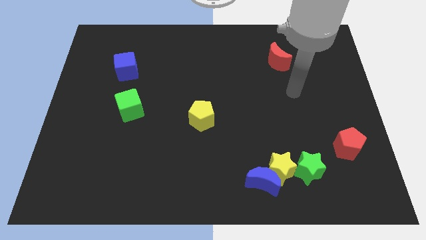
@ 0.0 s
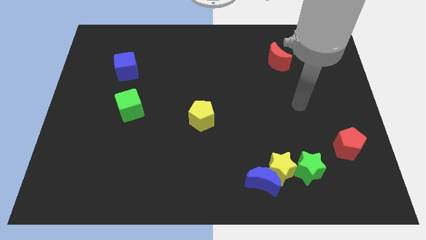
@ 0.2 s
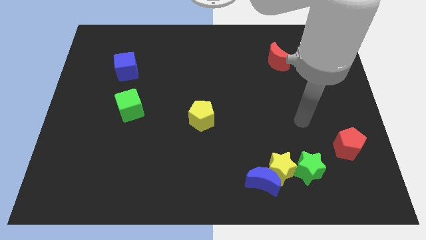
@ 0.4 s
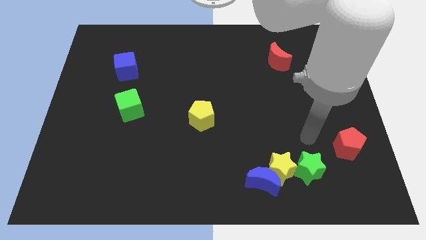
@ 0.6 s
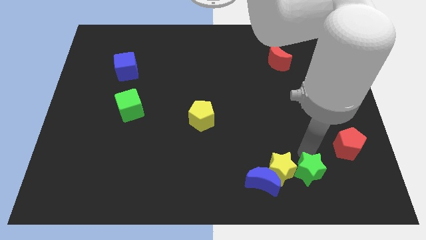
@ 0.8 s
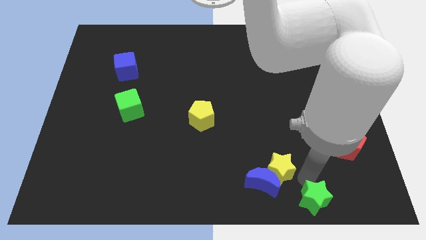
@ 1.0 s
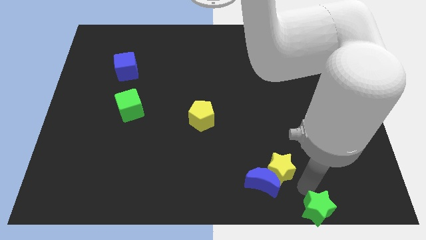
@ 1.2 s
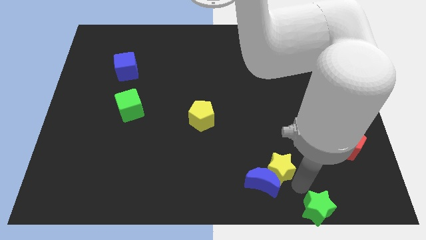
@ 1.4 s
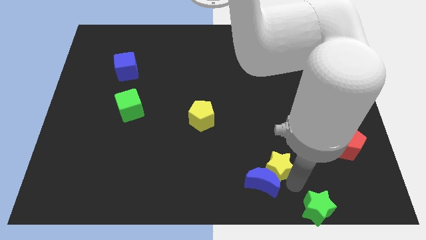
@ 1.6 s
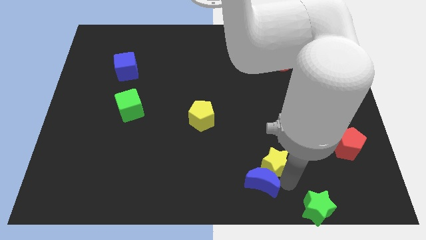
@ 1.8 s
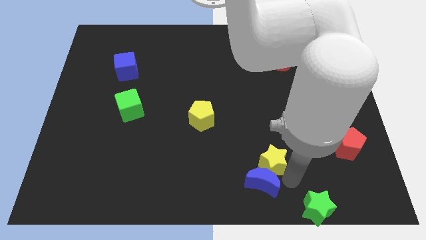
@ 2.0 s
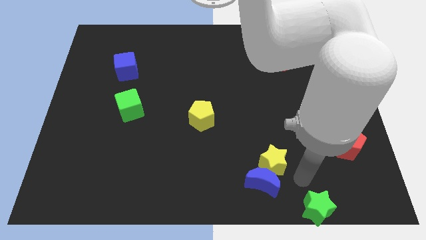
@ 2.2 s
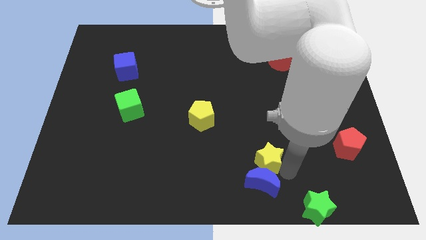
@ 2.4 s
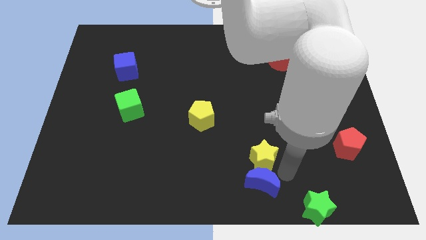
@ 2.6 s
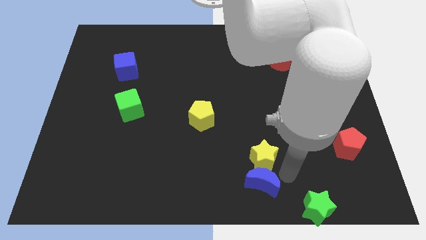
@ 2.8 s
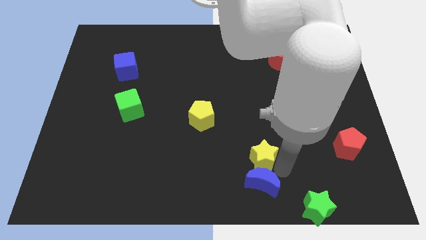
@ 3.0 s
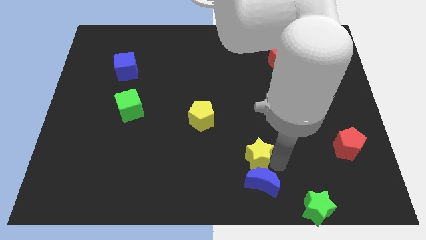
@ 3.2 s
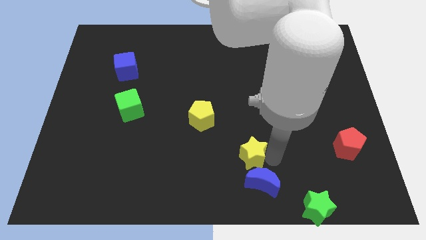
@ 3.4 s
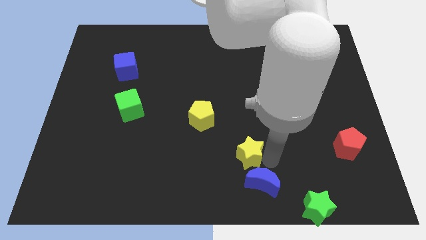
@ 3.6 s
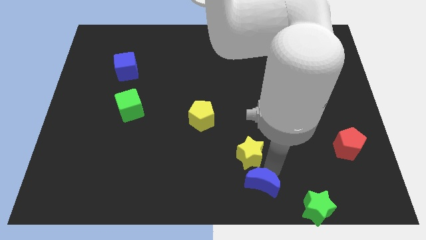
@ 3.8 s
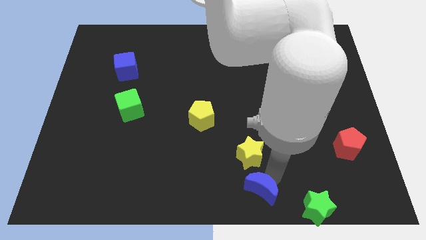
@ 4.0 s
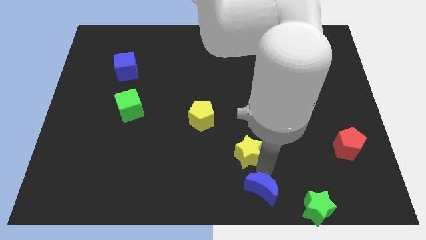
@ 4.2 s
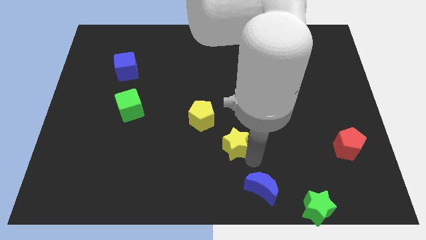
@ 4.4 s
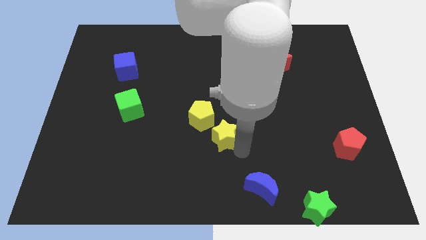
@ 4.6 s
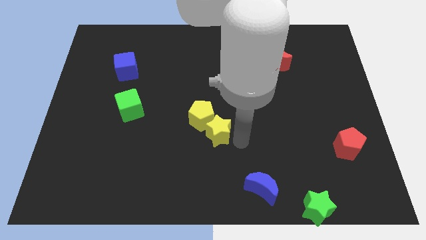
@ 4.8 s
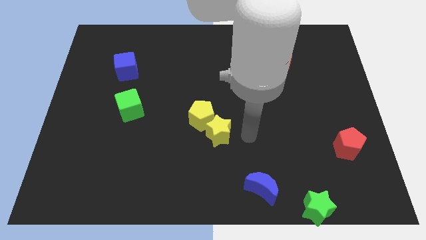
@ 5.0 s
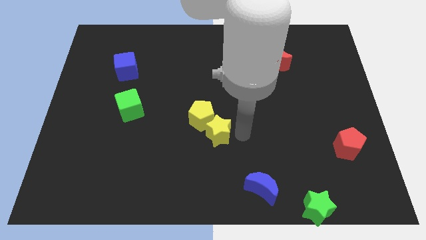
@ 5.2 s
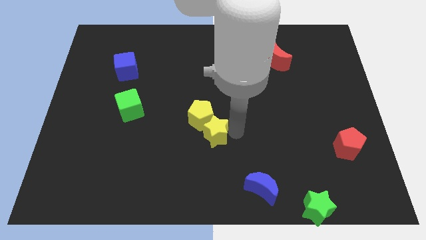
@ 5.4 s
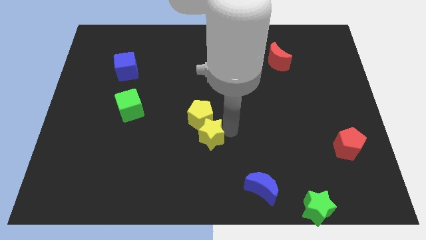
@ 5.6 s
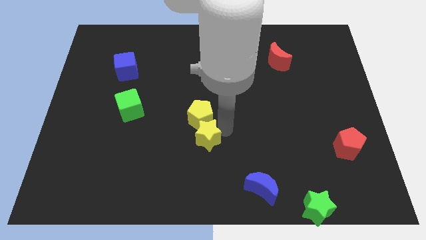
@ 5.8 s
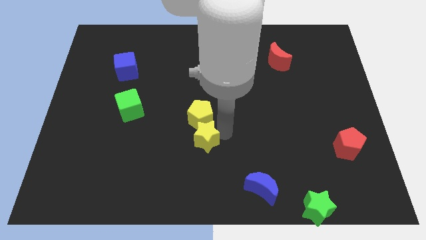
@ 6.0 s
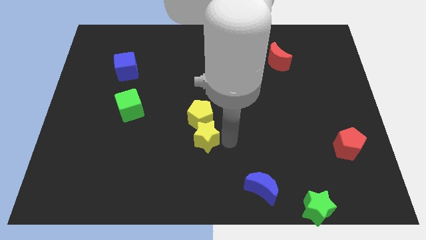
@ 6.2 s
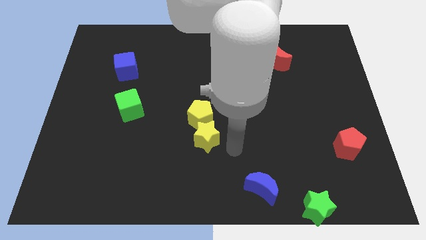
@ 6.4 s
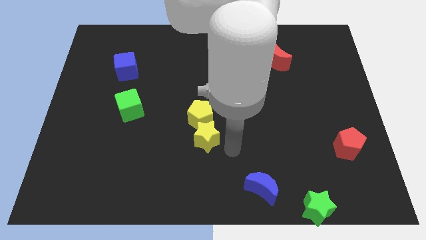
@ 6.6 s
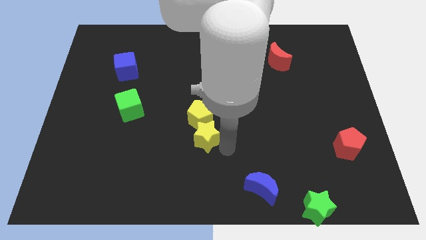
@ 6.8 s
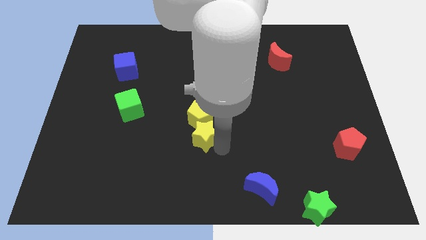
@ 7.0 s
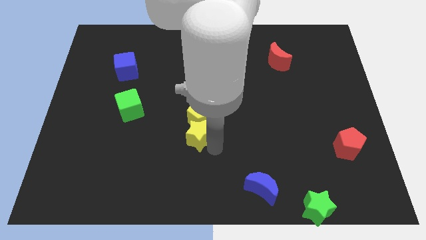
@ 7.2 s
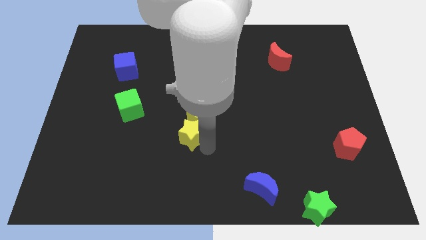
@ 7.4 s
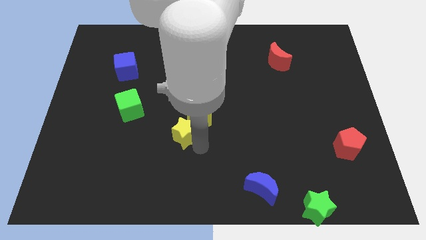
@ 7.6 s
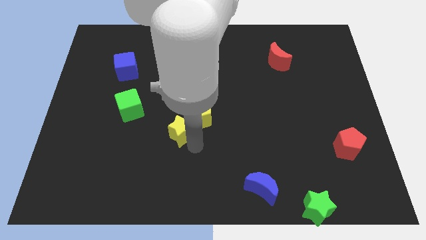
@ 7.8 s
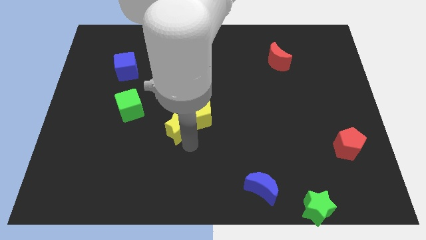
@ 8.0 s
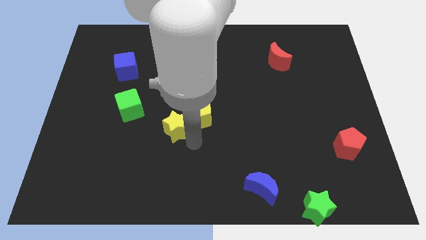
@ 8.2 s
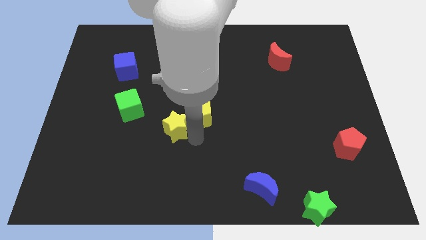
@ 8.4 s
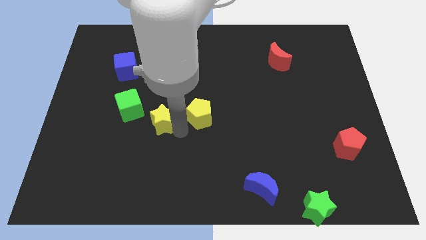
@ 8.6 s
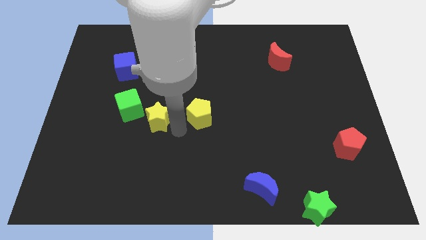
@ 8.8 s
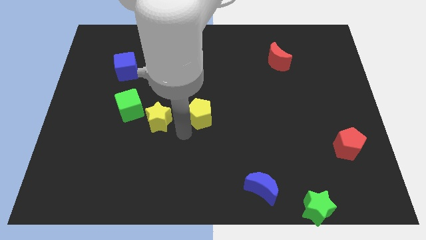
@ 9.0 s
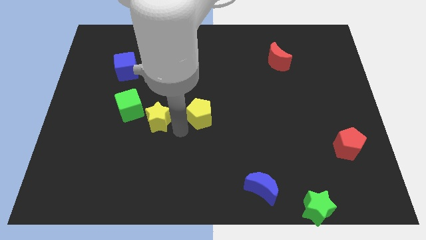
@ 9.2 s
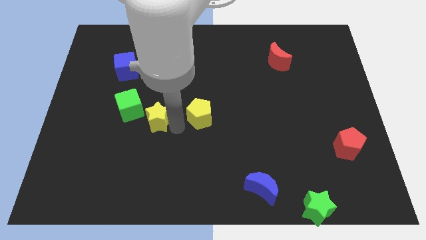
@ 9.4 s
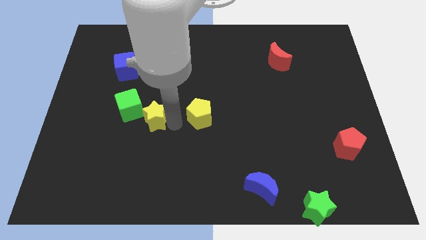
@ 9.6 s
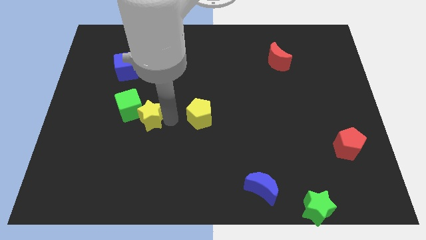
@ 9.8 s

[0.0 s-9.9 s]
slide the yellow star next to the green cube

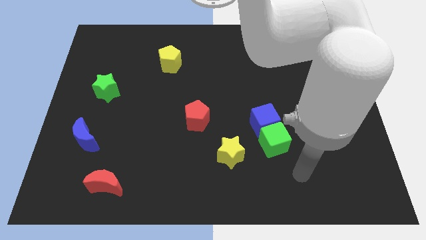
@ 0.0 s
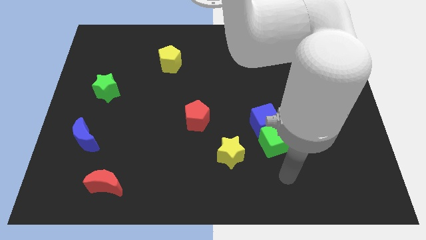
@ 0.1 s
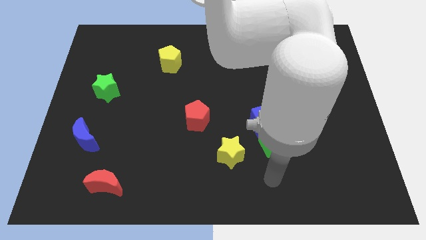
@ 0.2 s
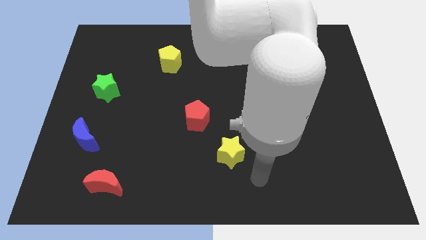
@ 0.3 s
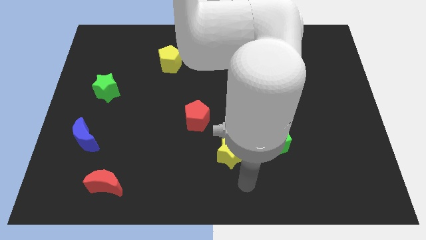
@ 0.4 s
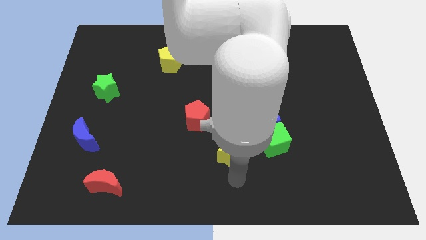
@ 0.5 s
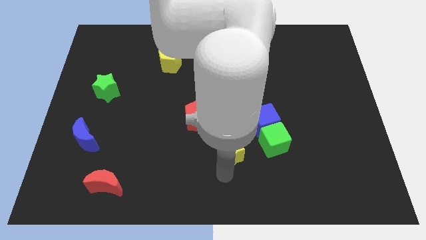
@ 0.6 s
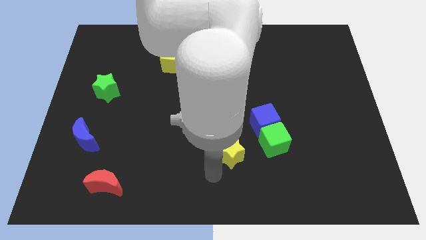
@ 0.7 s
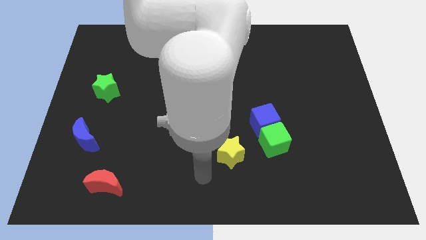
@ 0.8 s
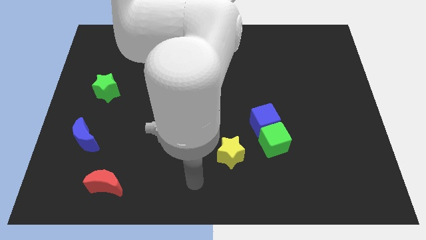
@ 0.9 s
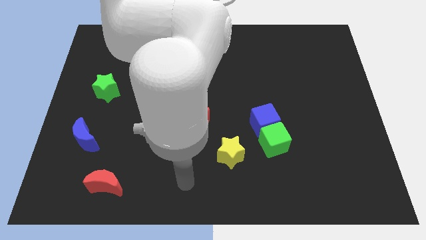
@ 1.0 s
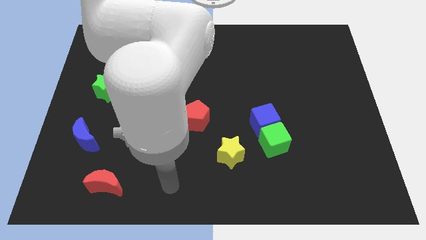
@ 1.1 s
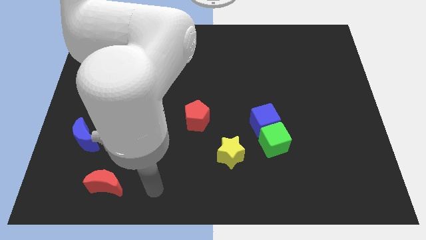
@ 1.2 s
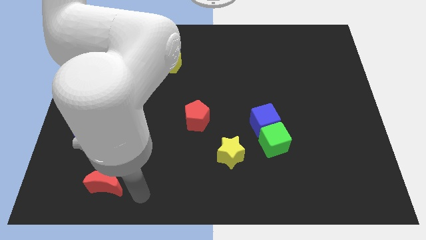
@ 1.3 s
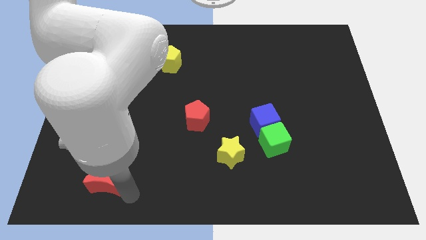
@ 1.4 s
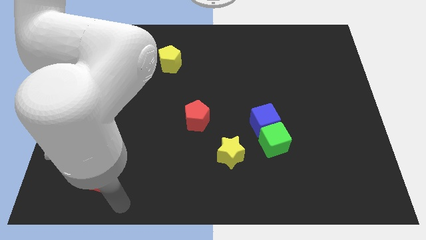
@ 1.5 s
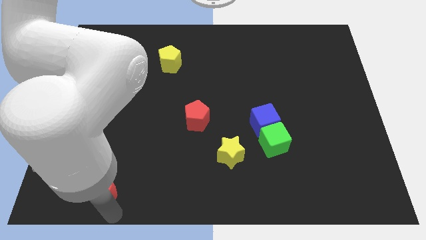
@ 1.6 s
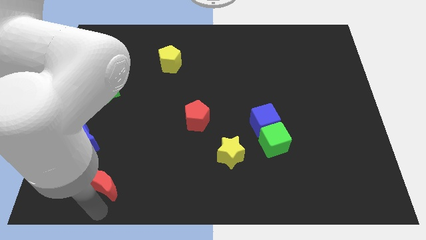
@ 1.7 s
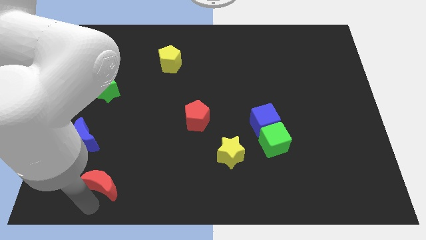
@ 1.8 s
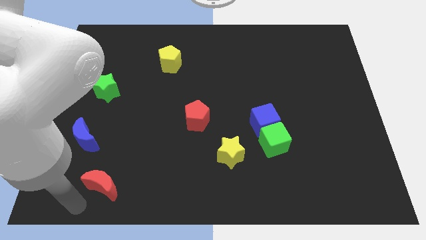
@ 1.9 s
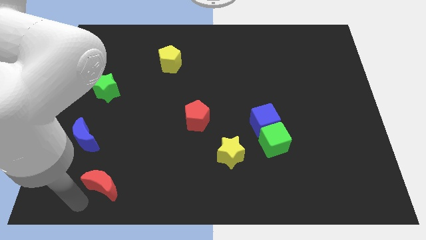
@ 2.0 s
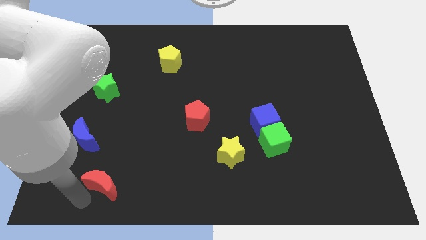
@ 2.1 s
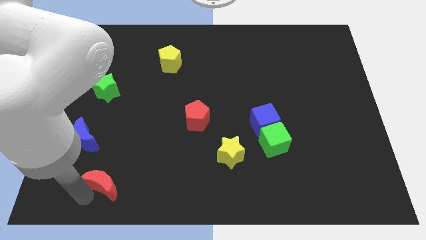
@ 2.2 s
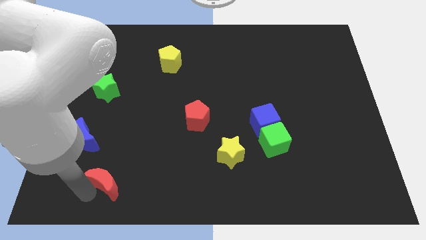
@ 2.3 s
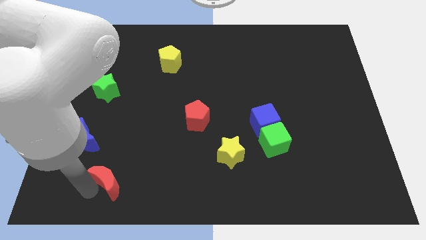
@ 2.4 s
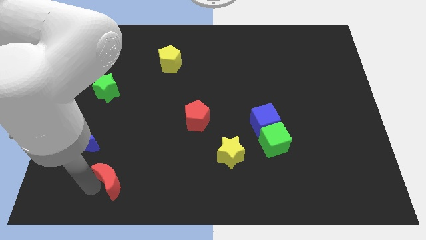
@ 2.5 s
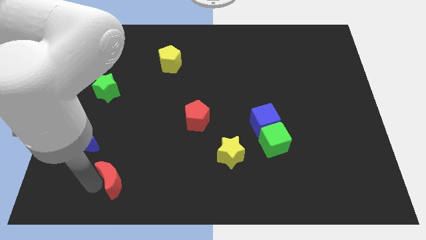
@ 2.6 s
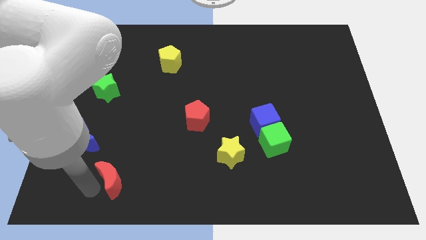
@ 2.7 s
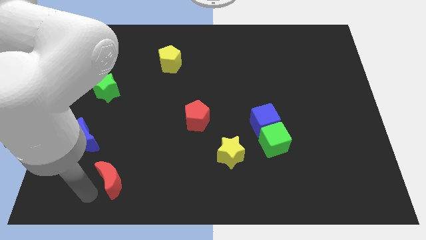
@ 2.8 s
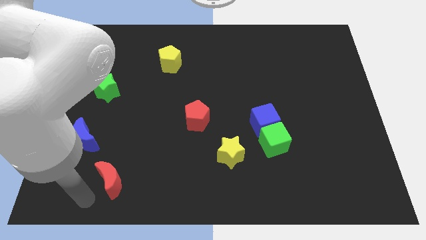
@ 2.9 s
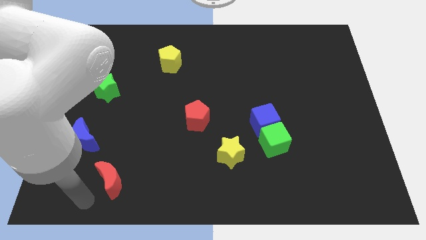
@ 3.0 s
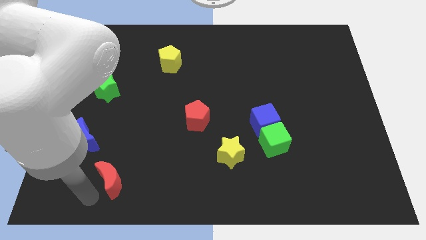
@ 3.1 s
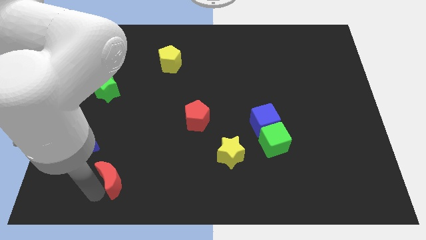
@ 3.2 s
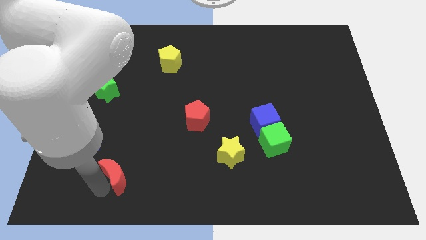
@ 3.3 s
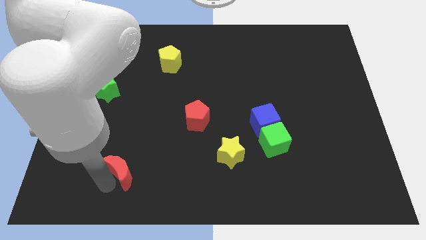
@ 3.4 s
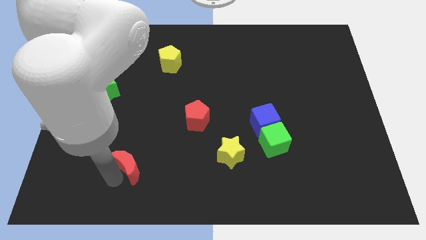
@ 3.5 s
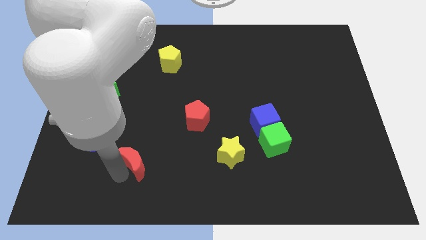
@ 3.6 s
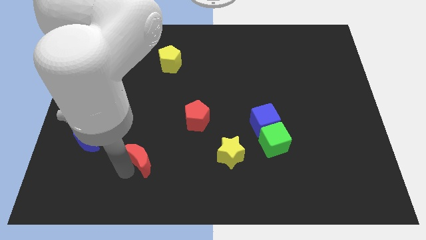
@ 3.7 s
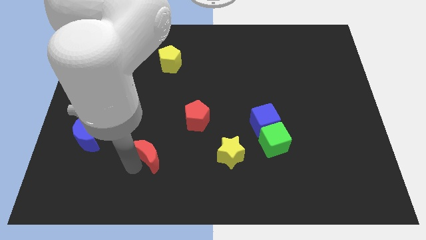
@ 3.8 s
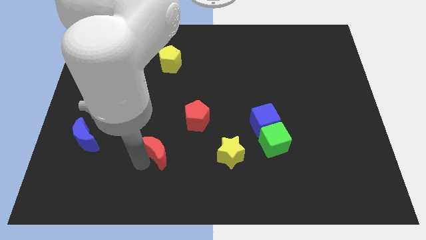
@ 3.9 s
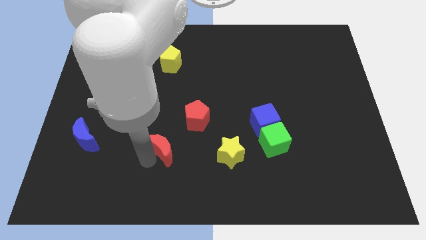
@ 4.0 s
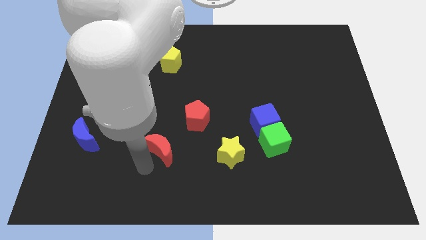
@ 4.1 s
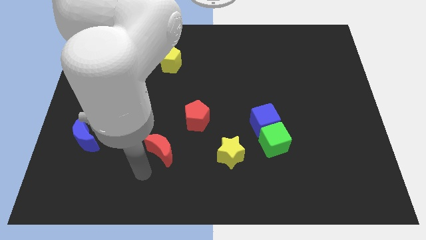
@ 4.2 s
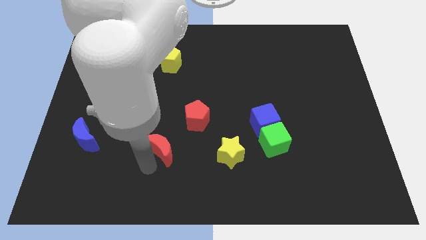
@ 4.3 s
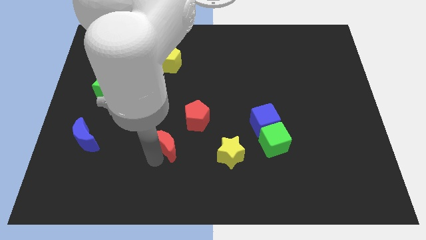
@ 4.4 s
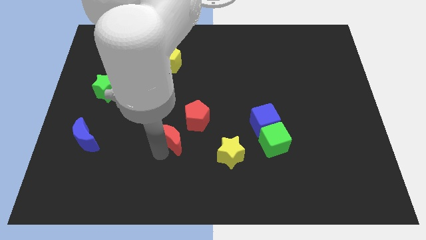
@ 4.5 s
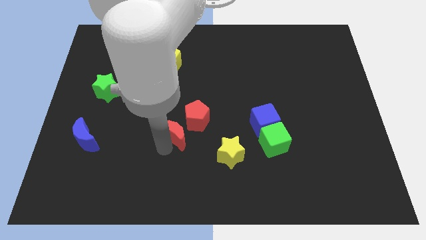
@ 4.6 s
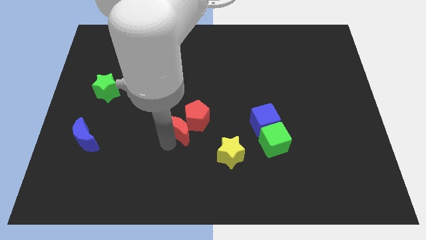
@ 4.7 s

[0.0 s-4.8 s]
put the red moon close to the red pentagon
